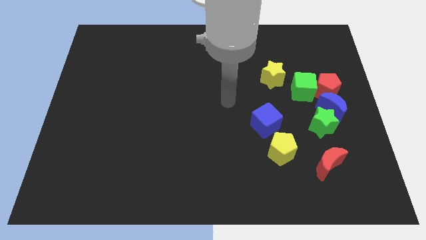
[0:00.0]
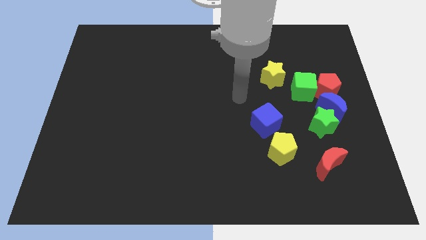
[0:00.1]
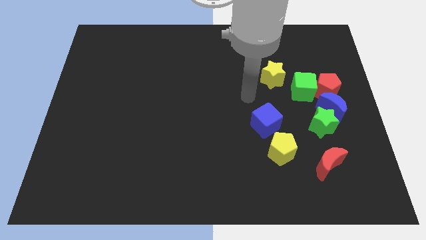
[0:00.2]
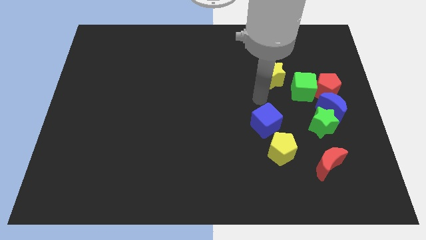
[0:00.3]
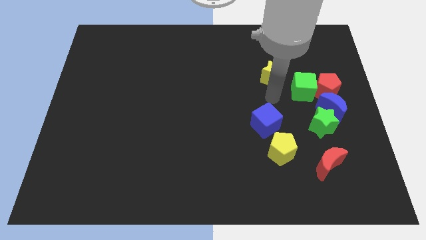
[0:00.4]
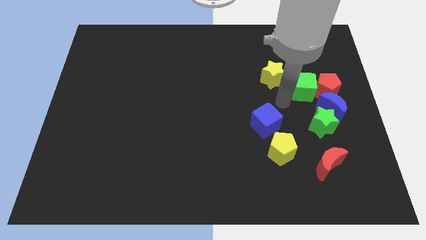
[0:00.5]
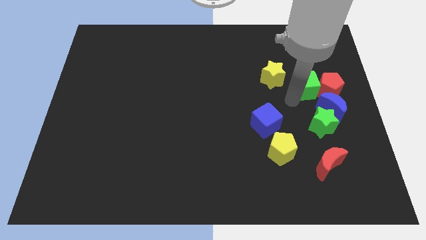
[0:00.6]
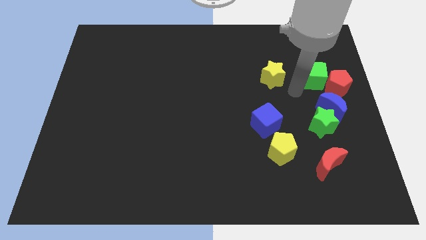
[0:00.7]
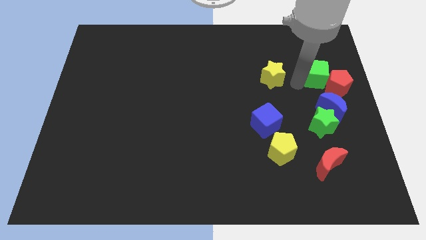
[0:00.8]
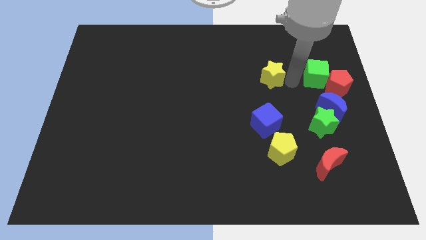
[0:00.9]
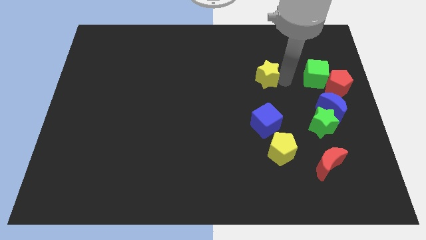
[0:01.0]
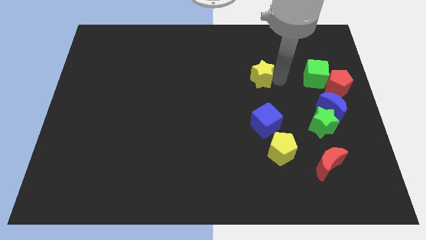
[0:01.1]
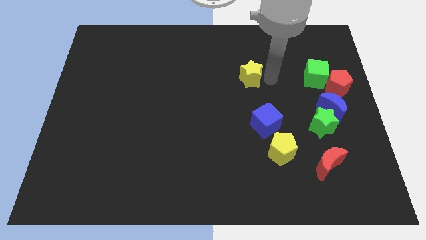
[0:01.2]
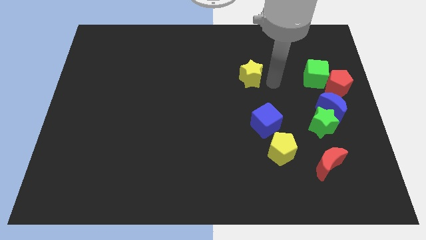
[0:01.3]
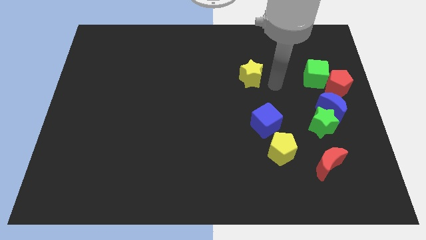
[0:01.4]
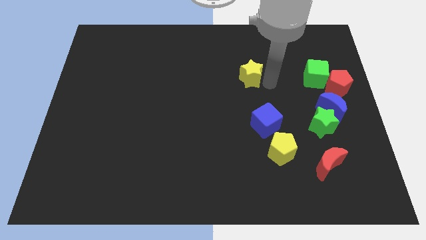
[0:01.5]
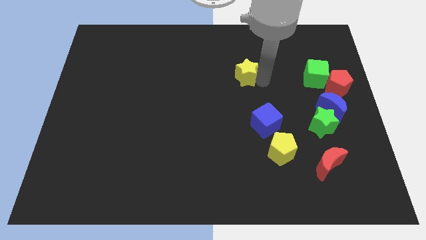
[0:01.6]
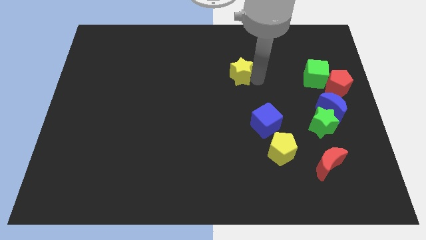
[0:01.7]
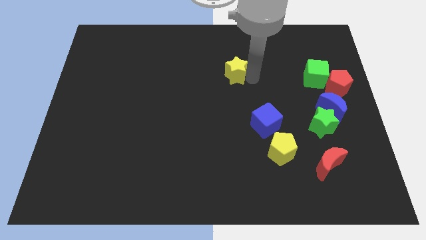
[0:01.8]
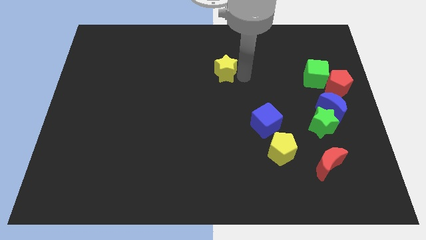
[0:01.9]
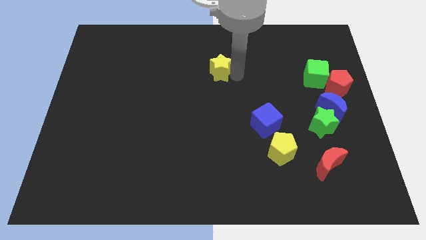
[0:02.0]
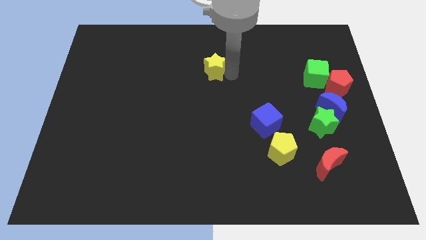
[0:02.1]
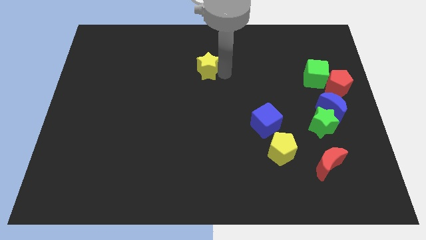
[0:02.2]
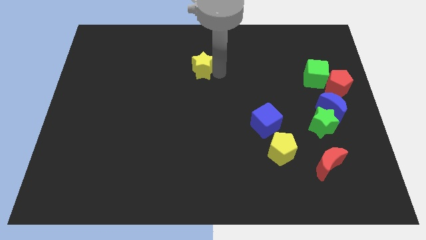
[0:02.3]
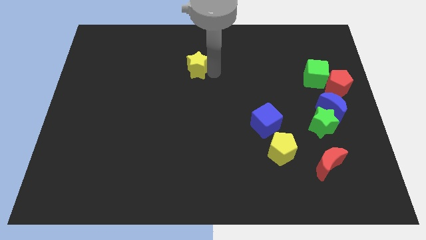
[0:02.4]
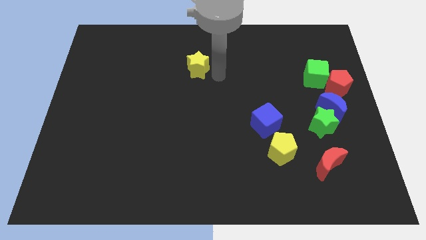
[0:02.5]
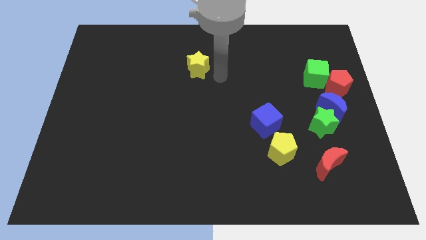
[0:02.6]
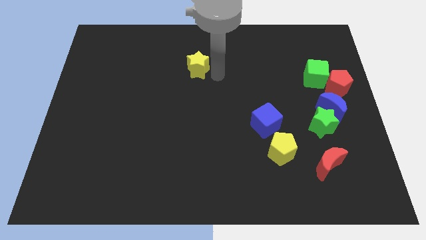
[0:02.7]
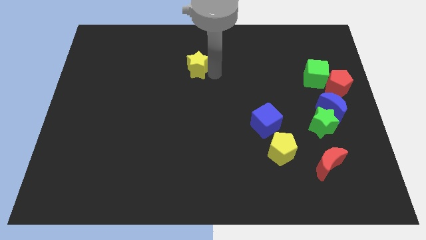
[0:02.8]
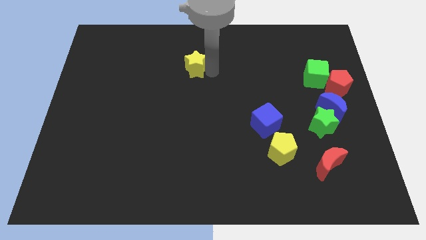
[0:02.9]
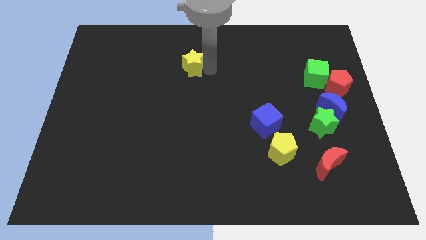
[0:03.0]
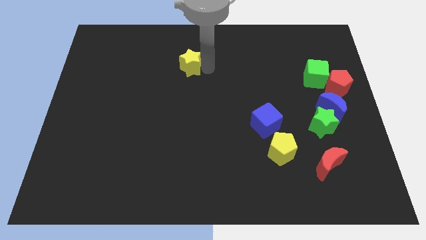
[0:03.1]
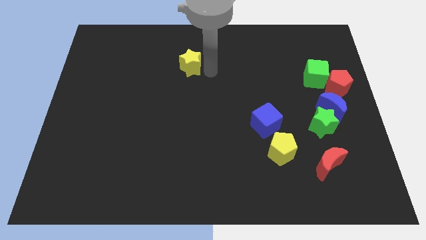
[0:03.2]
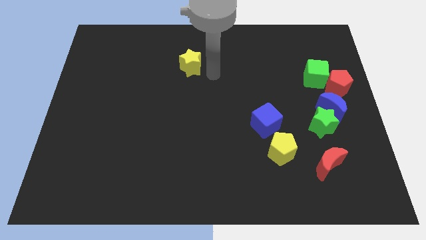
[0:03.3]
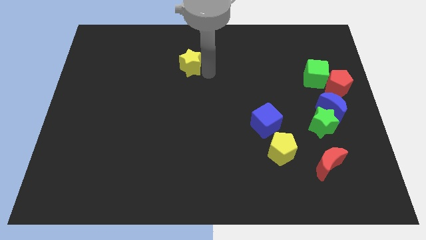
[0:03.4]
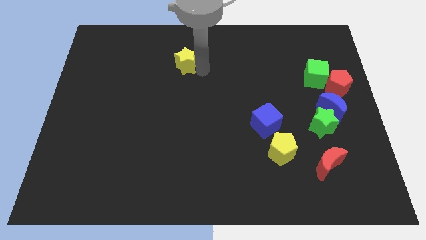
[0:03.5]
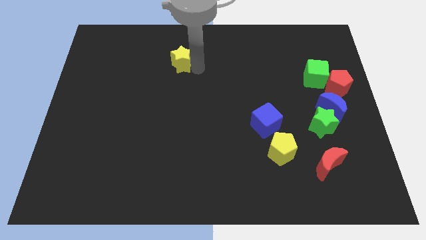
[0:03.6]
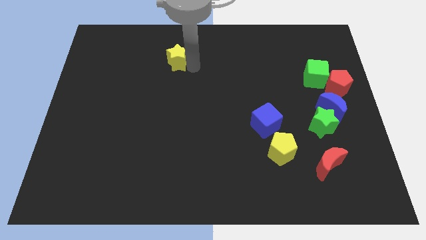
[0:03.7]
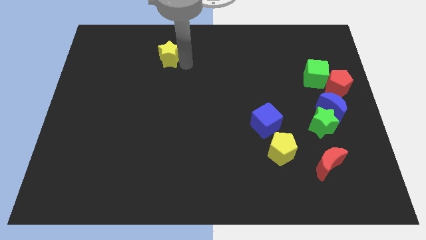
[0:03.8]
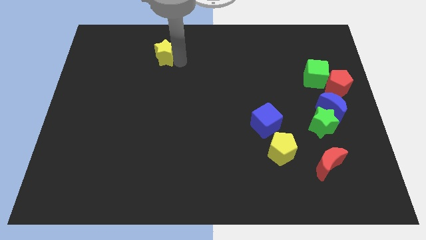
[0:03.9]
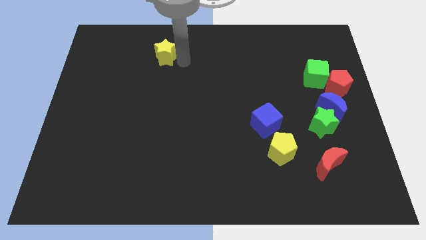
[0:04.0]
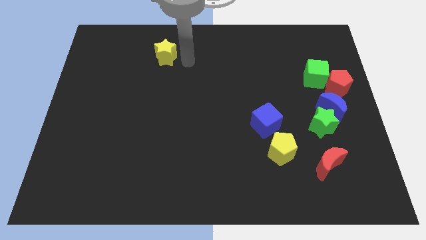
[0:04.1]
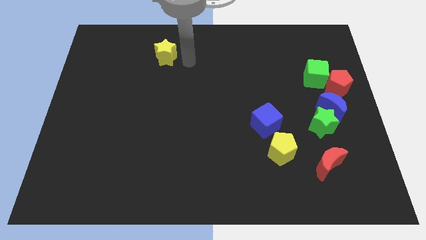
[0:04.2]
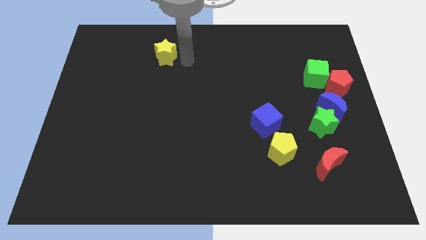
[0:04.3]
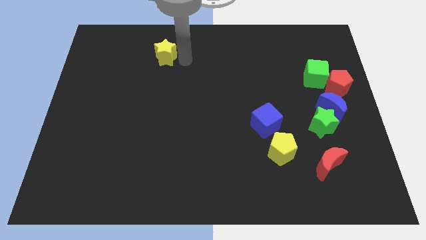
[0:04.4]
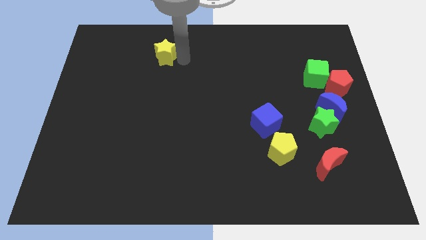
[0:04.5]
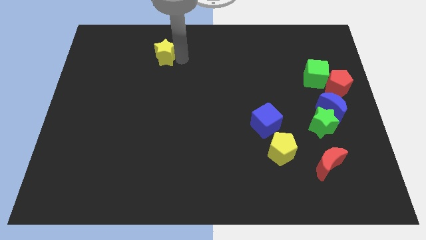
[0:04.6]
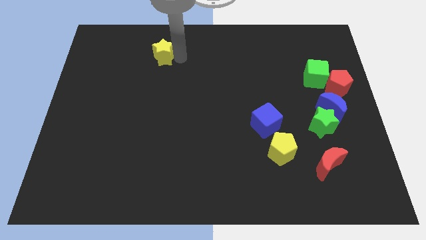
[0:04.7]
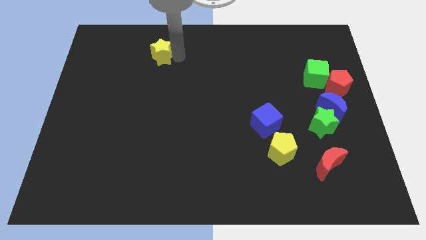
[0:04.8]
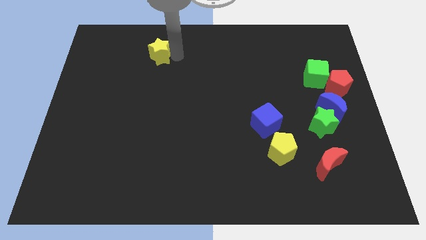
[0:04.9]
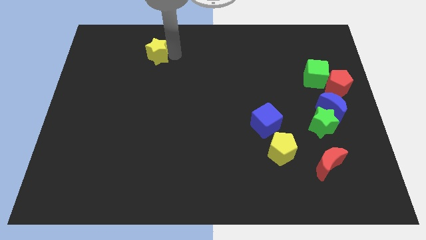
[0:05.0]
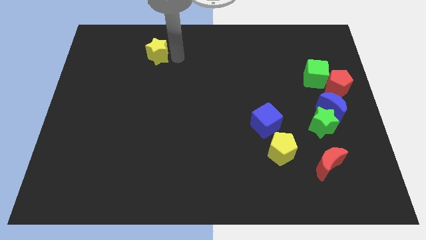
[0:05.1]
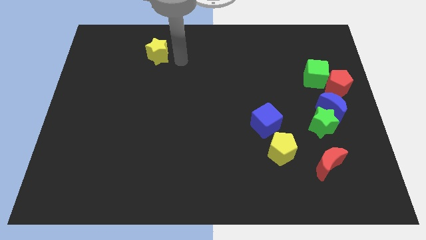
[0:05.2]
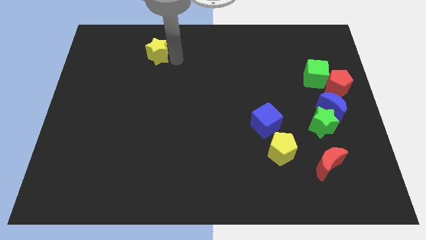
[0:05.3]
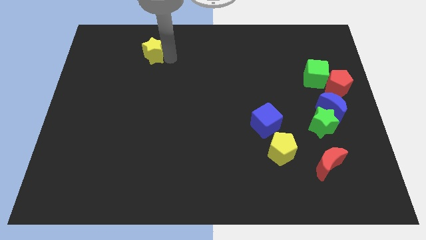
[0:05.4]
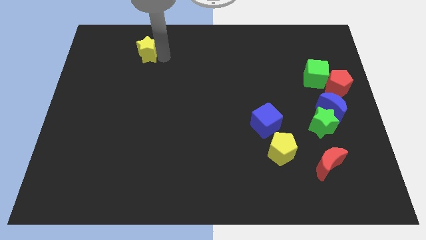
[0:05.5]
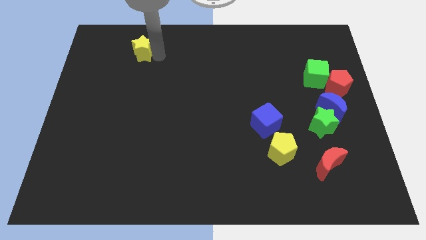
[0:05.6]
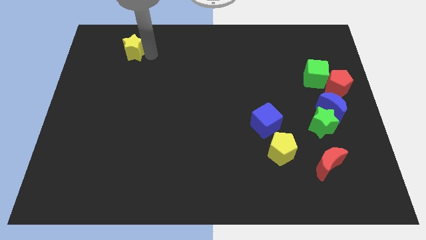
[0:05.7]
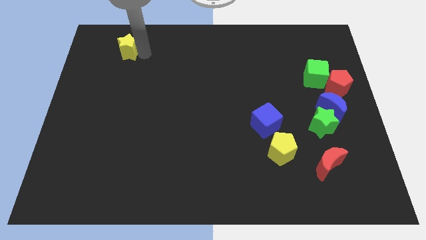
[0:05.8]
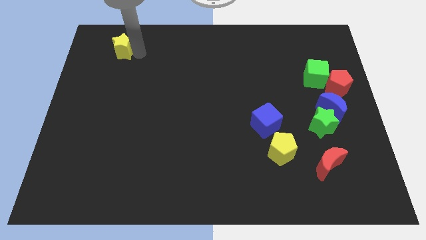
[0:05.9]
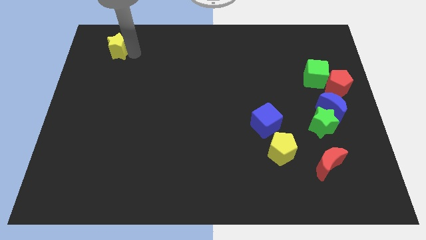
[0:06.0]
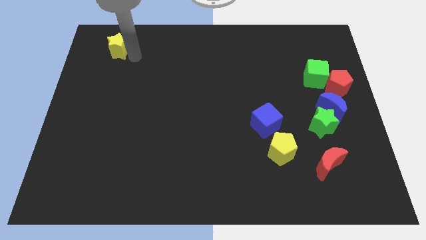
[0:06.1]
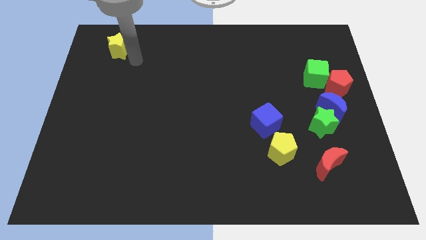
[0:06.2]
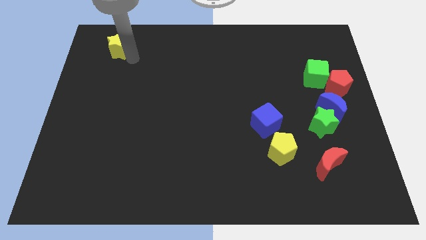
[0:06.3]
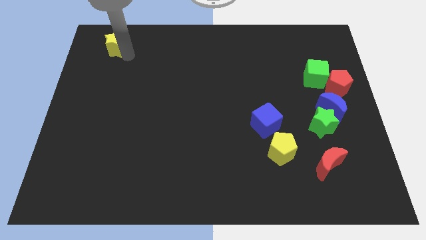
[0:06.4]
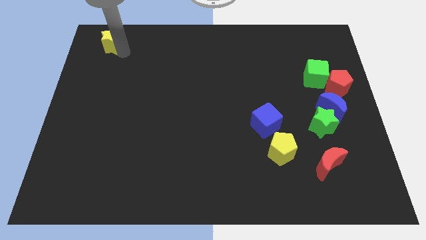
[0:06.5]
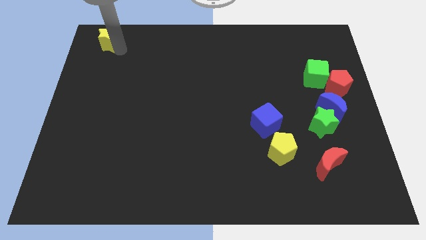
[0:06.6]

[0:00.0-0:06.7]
push the yellow star to the top left
